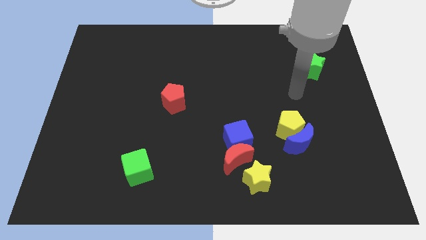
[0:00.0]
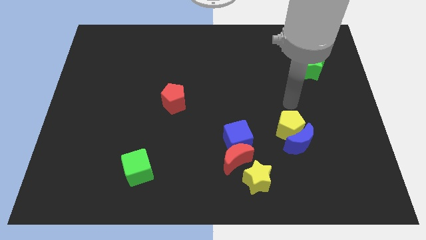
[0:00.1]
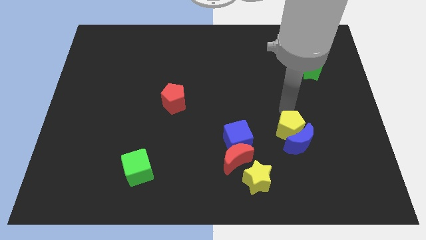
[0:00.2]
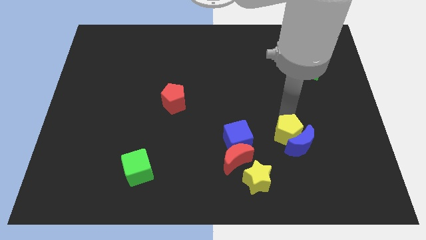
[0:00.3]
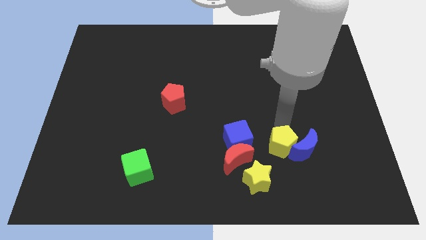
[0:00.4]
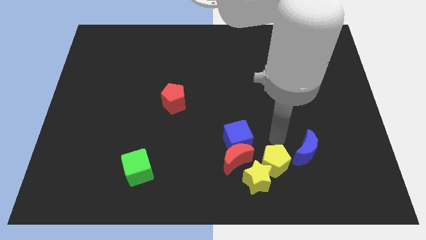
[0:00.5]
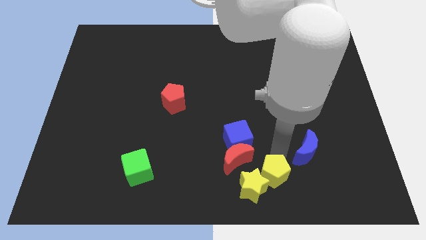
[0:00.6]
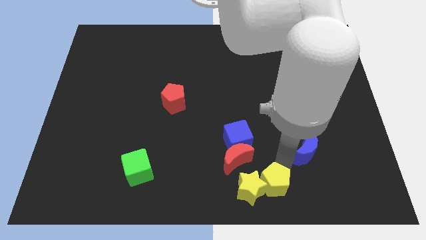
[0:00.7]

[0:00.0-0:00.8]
separate the blue moon from the yellow pentagon

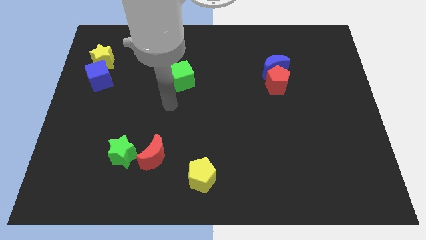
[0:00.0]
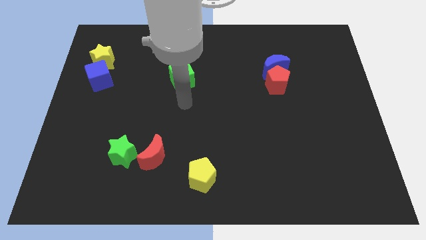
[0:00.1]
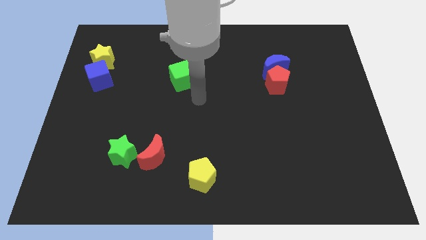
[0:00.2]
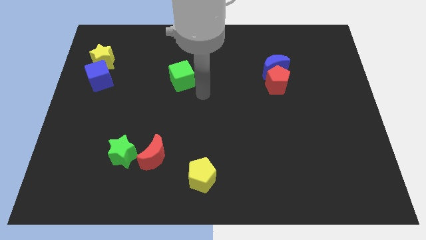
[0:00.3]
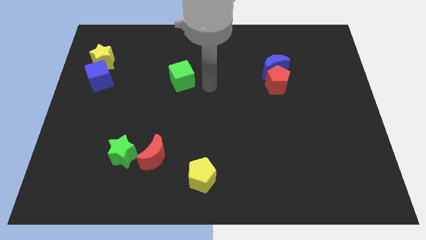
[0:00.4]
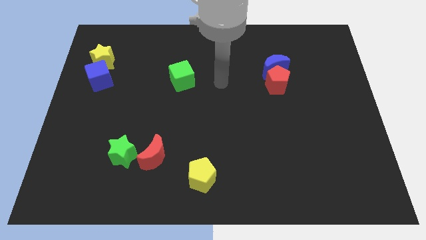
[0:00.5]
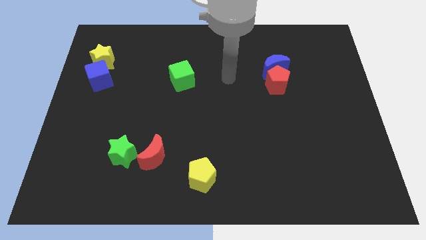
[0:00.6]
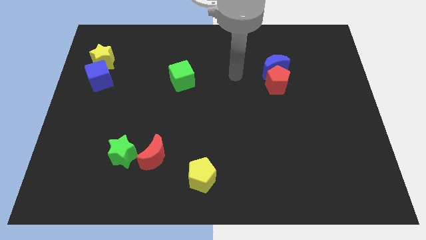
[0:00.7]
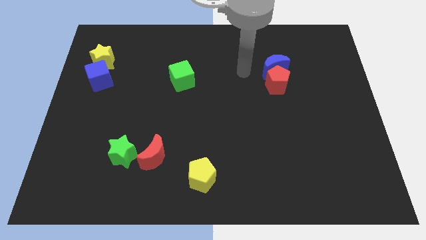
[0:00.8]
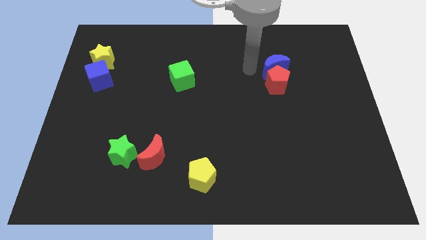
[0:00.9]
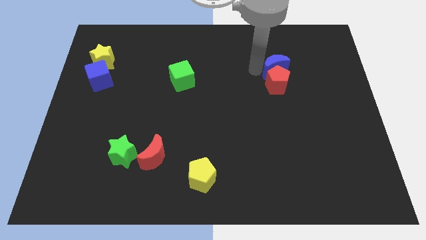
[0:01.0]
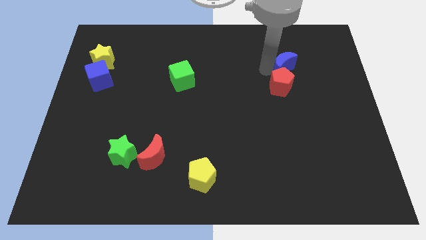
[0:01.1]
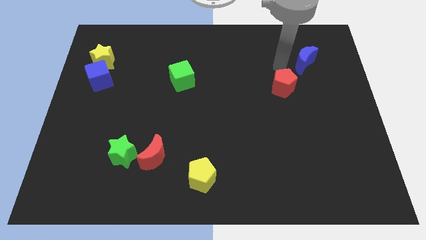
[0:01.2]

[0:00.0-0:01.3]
move the red pentagon away from the blue moon

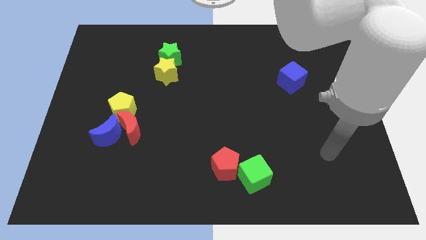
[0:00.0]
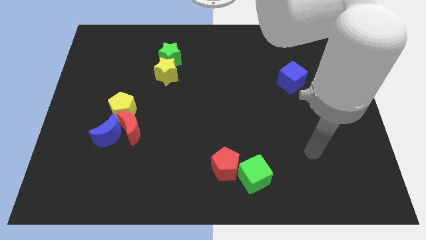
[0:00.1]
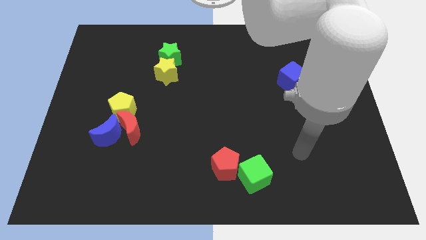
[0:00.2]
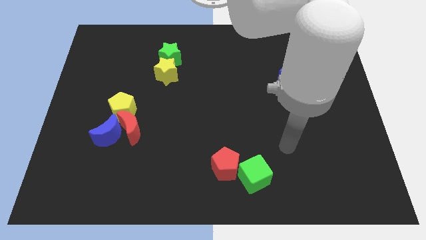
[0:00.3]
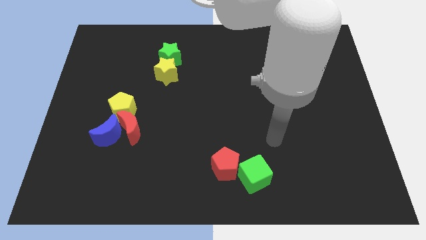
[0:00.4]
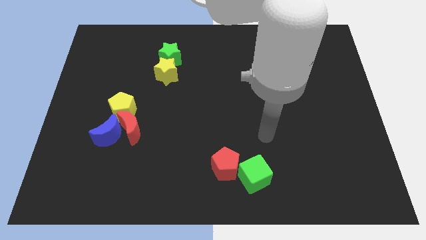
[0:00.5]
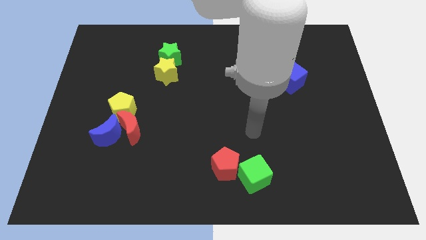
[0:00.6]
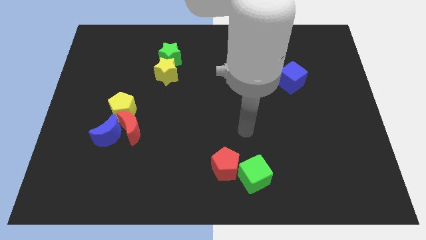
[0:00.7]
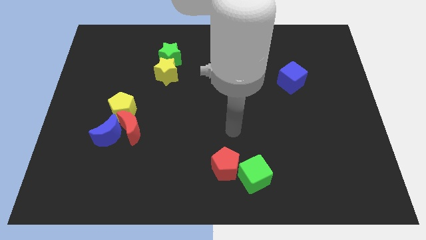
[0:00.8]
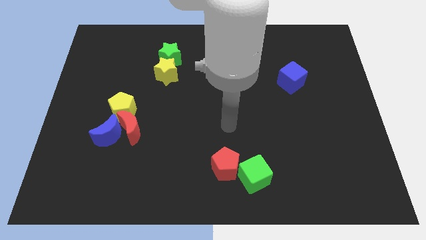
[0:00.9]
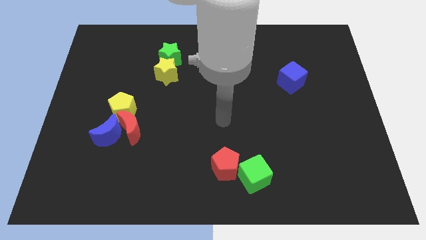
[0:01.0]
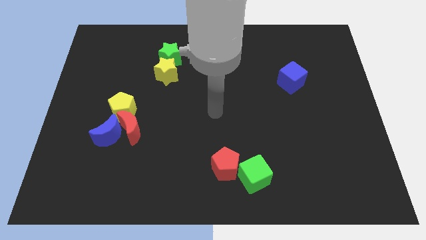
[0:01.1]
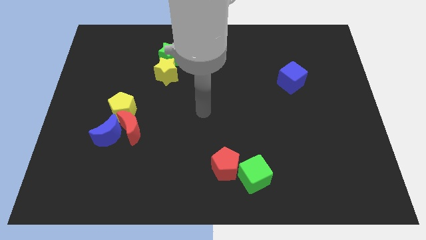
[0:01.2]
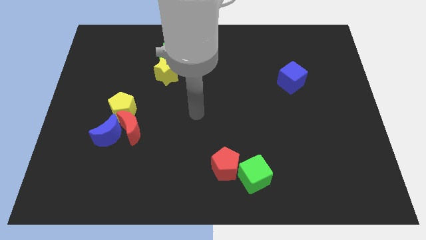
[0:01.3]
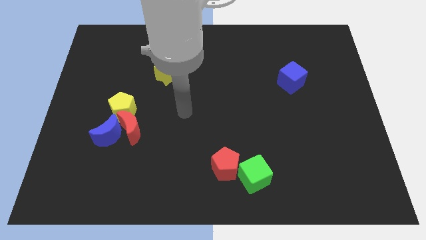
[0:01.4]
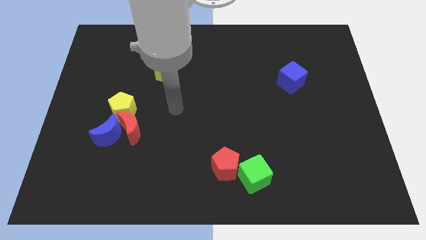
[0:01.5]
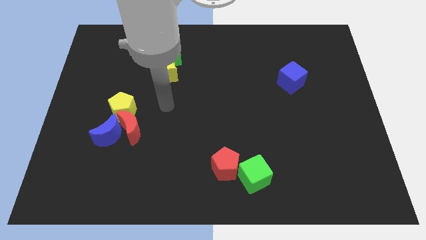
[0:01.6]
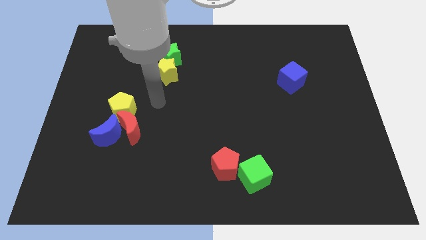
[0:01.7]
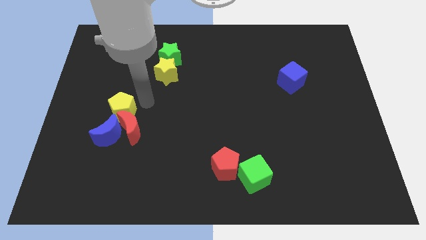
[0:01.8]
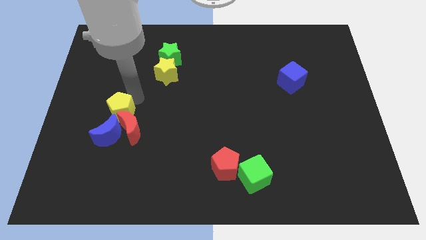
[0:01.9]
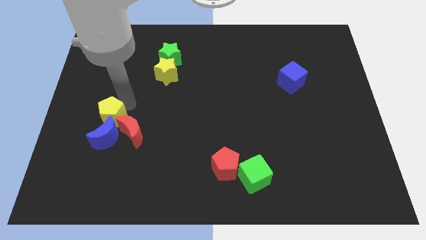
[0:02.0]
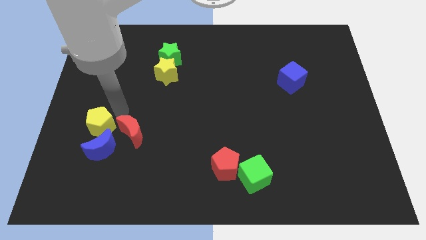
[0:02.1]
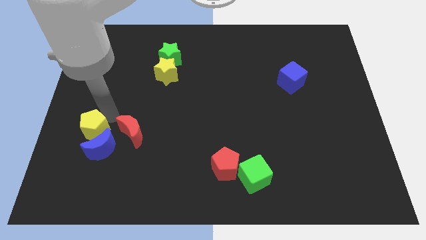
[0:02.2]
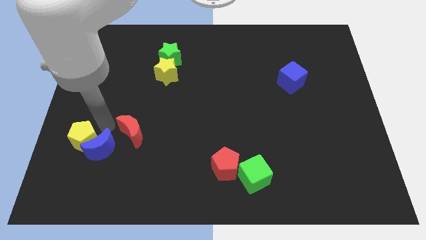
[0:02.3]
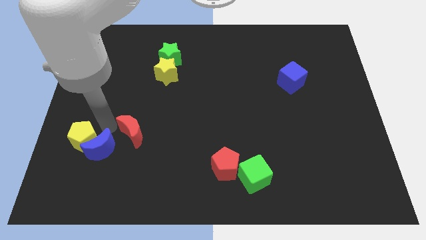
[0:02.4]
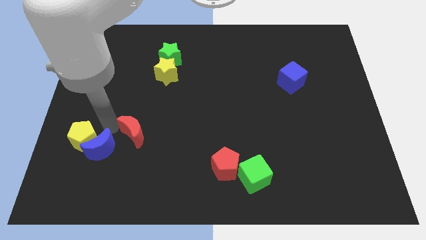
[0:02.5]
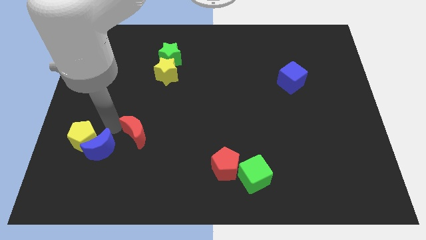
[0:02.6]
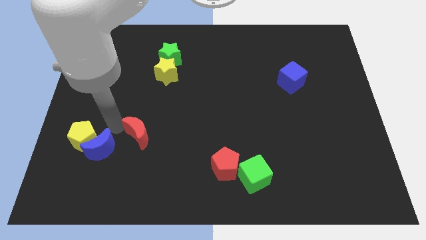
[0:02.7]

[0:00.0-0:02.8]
pull the red moon apart from the blue moon and yellow pentagon

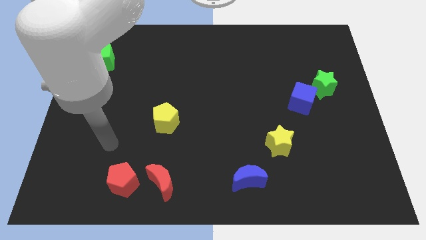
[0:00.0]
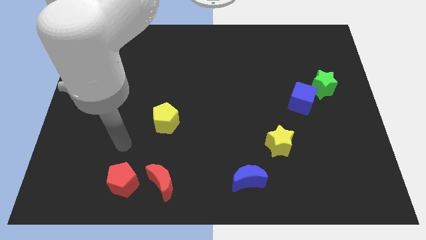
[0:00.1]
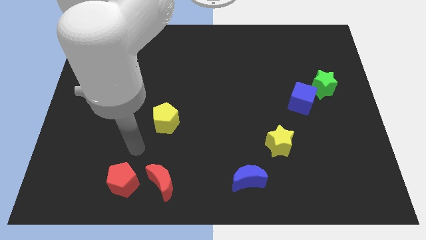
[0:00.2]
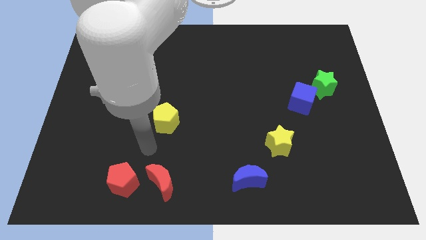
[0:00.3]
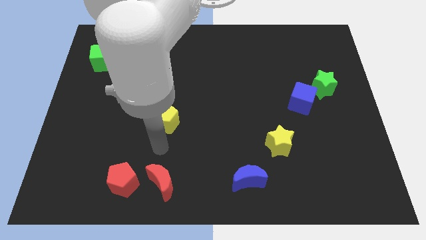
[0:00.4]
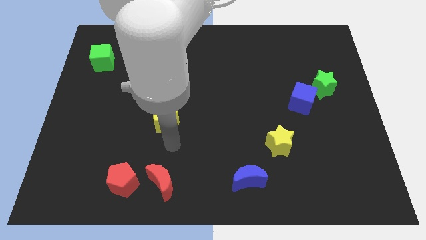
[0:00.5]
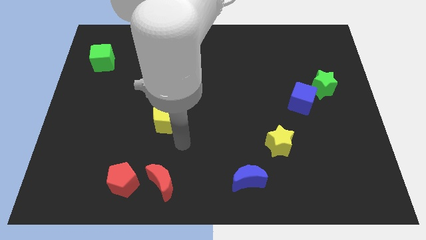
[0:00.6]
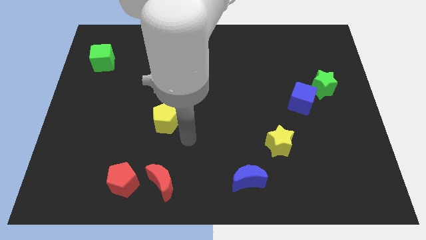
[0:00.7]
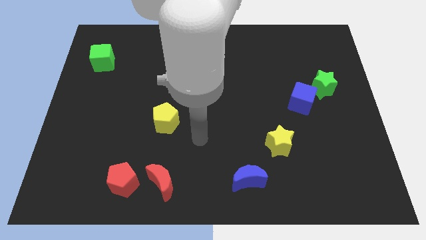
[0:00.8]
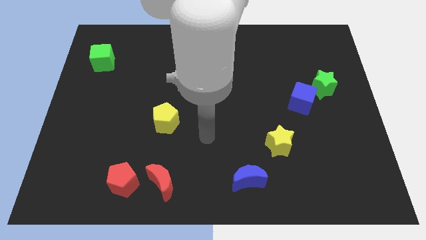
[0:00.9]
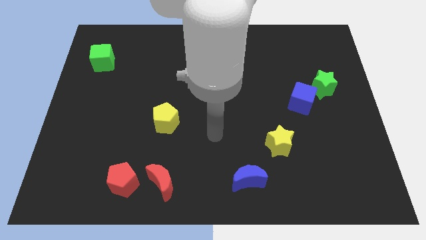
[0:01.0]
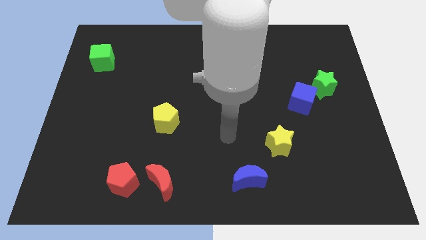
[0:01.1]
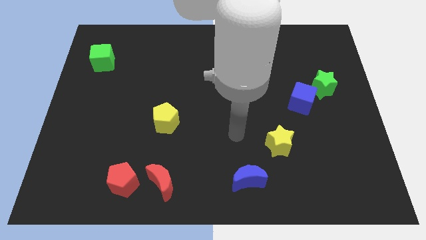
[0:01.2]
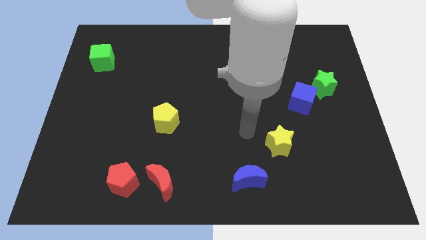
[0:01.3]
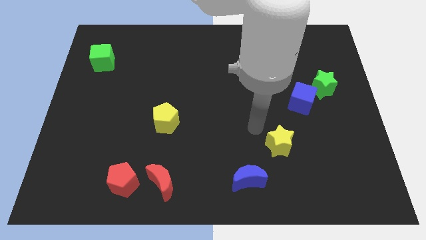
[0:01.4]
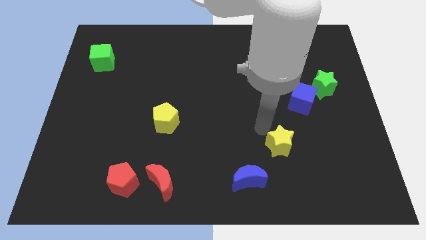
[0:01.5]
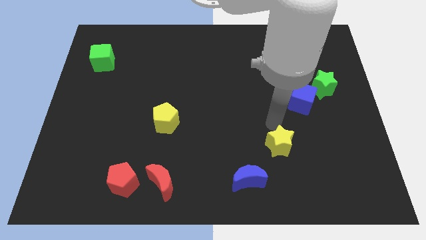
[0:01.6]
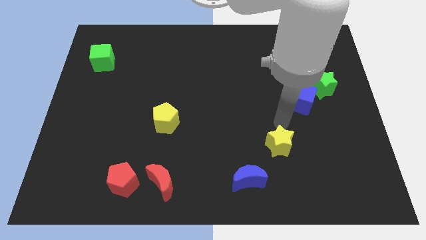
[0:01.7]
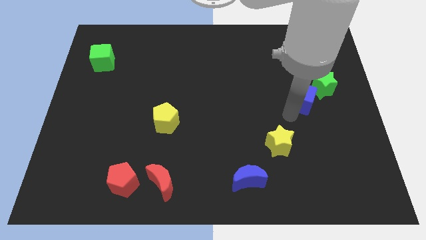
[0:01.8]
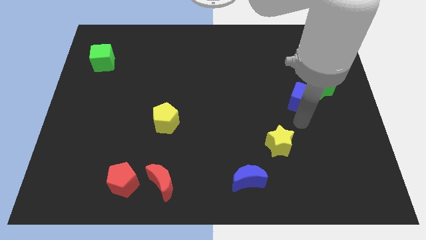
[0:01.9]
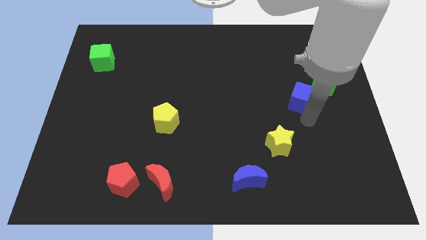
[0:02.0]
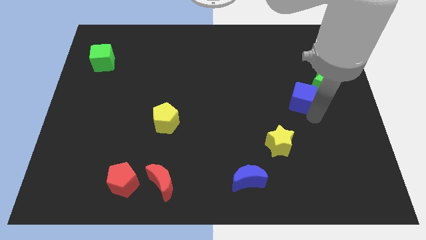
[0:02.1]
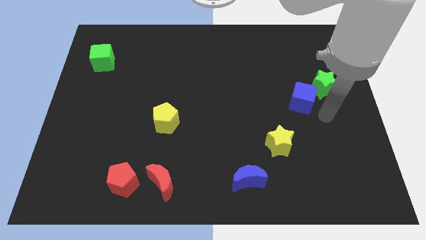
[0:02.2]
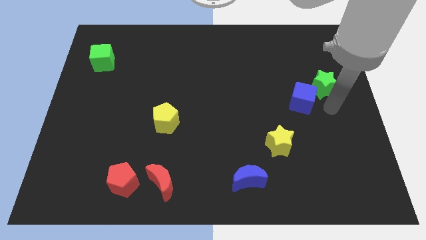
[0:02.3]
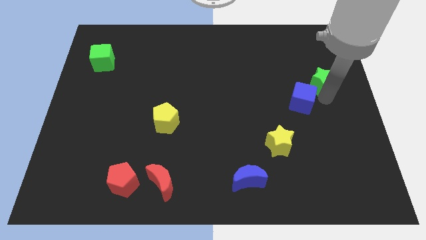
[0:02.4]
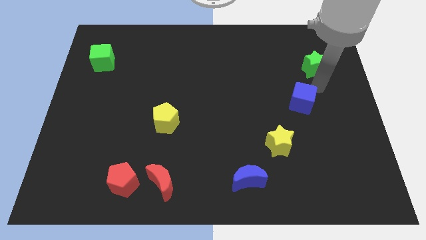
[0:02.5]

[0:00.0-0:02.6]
separate the blue cube from the green star

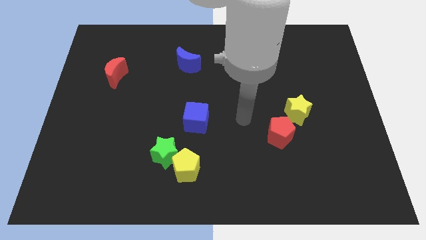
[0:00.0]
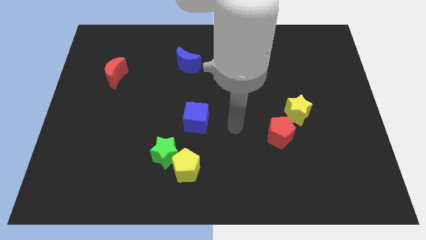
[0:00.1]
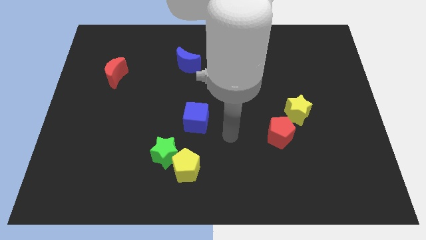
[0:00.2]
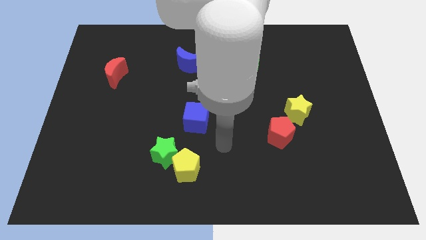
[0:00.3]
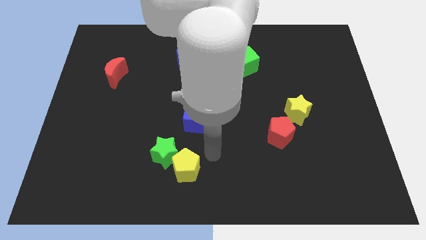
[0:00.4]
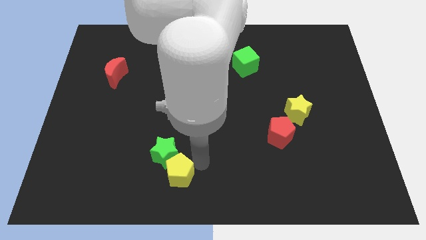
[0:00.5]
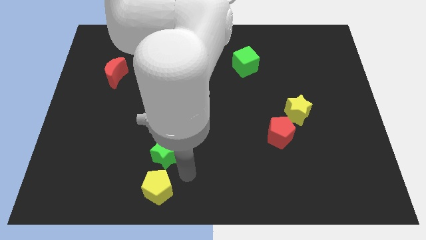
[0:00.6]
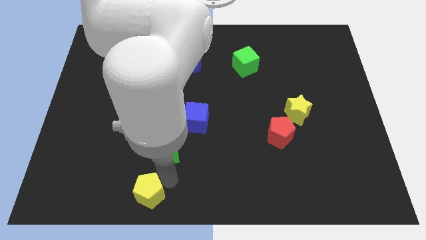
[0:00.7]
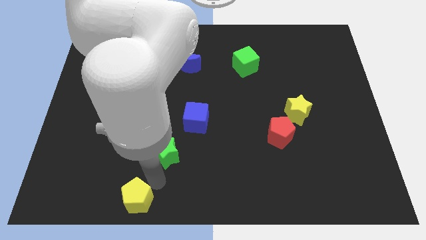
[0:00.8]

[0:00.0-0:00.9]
separate the green star from the yellow pentagon

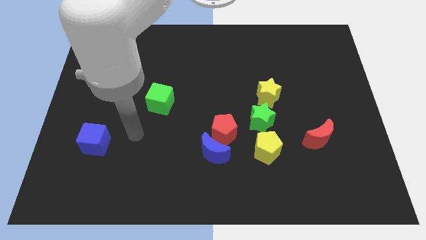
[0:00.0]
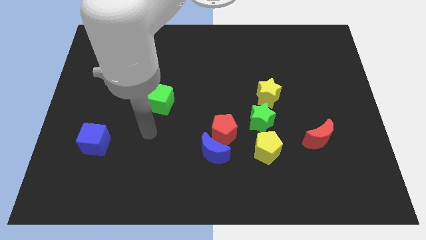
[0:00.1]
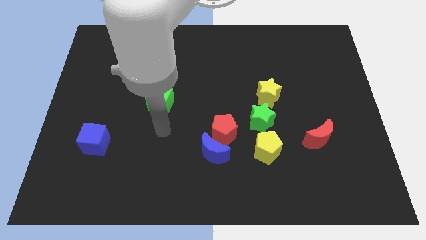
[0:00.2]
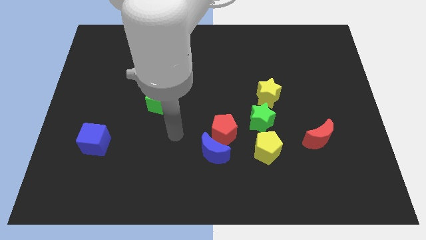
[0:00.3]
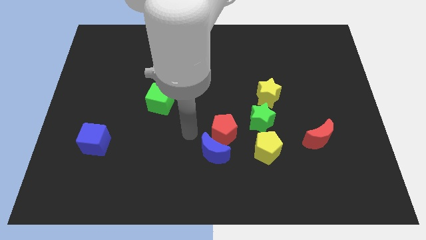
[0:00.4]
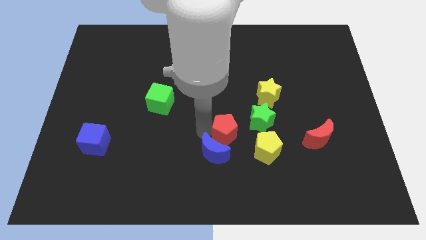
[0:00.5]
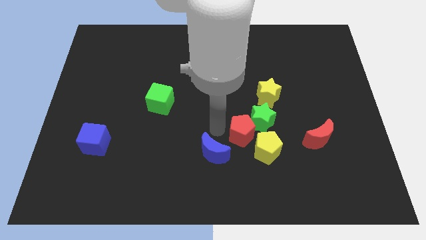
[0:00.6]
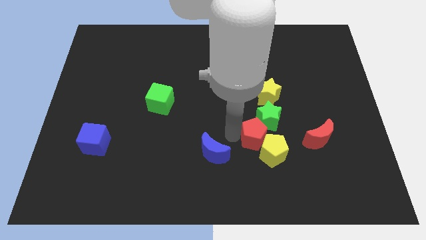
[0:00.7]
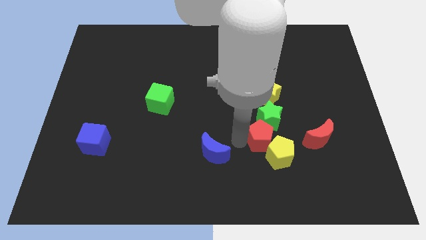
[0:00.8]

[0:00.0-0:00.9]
separate the blue moon from the red pentagon
